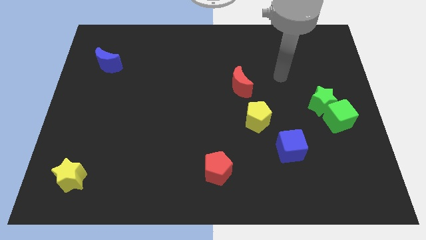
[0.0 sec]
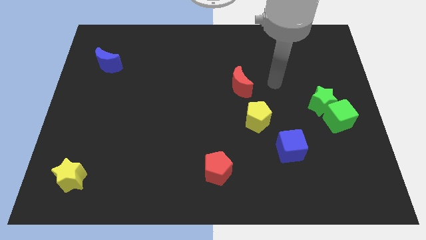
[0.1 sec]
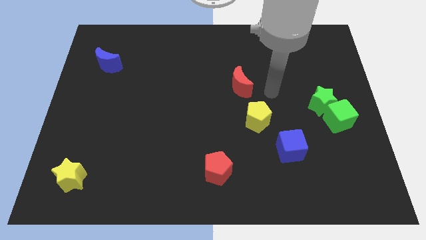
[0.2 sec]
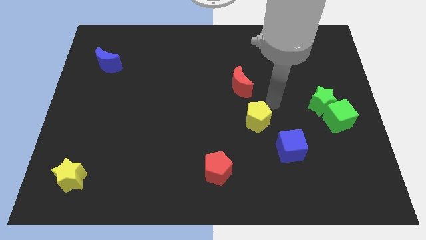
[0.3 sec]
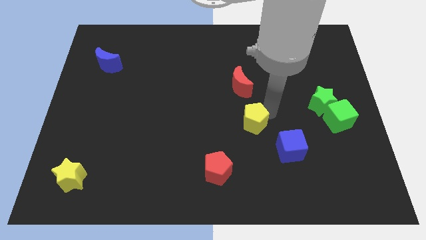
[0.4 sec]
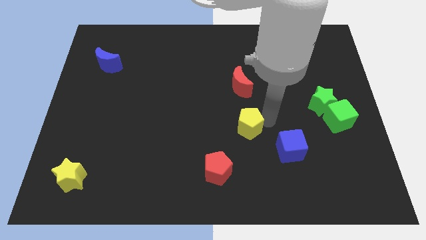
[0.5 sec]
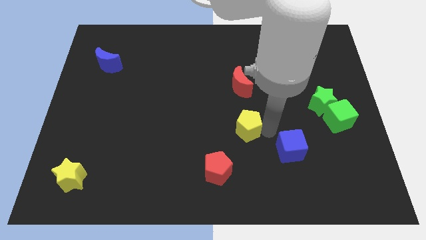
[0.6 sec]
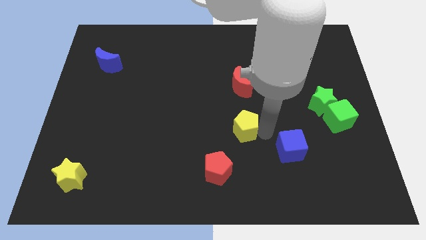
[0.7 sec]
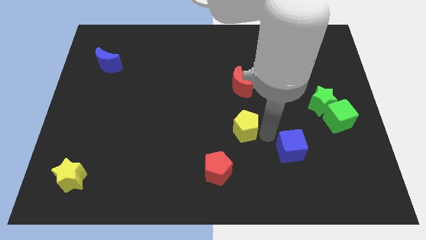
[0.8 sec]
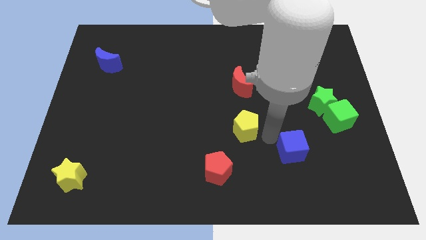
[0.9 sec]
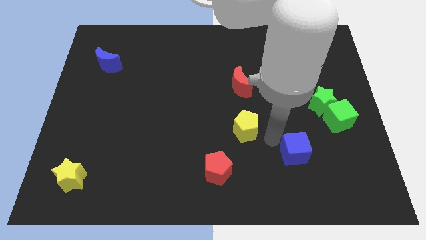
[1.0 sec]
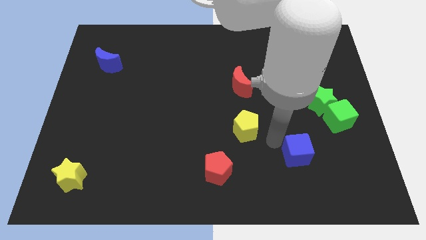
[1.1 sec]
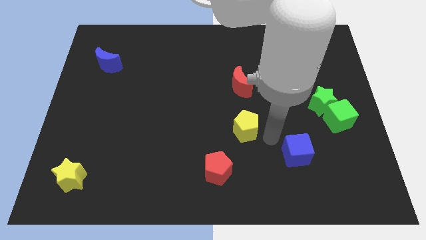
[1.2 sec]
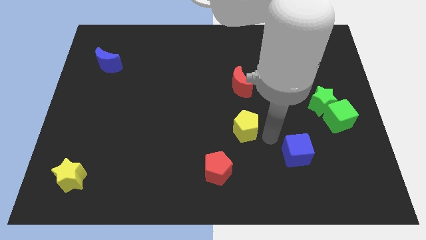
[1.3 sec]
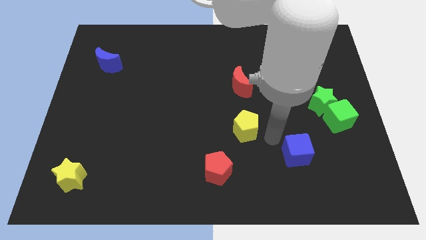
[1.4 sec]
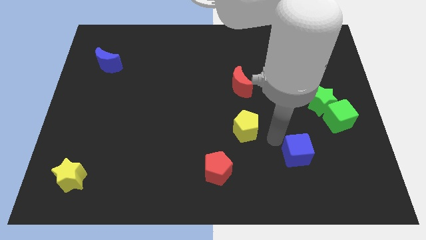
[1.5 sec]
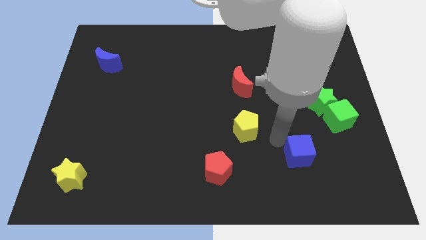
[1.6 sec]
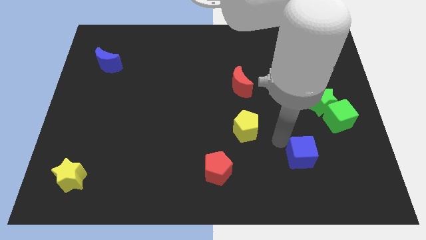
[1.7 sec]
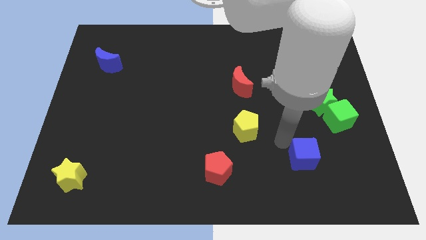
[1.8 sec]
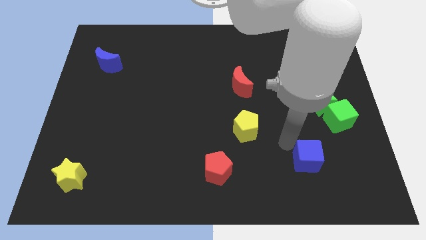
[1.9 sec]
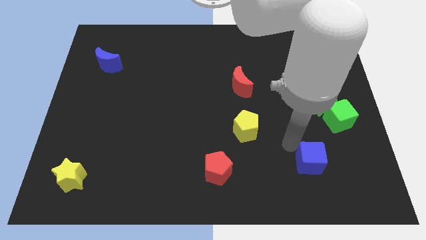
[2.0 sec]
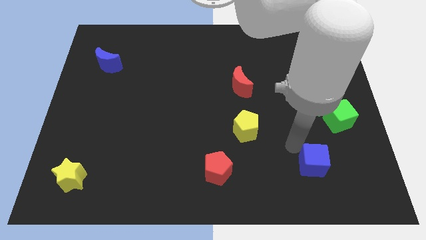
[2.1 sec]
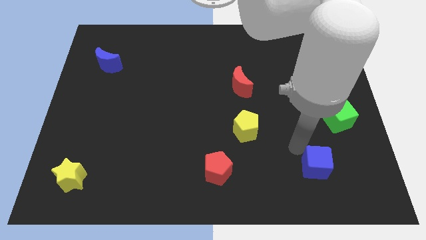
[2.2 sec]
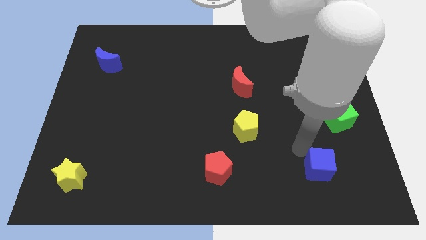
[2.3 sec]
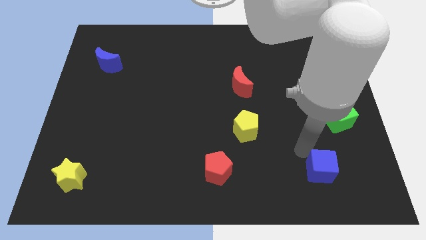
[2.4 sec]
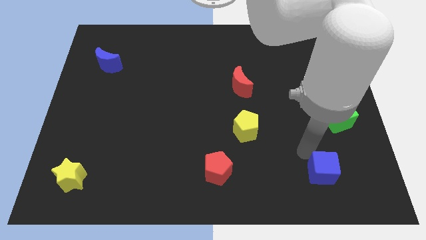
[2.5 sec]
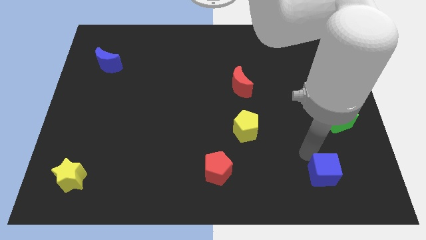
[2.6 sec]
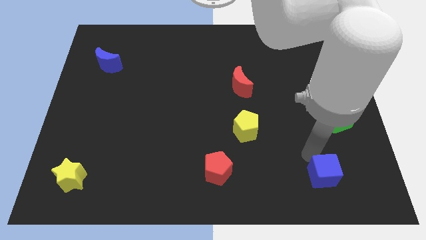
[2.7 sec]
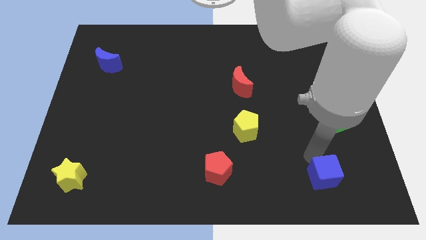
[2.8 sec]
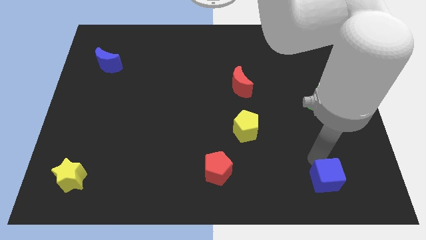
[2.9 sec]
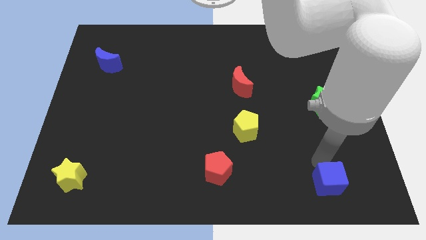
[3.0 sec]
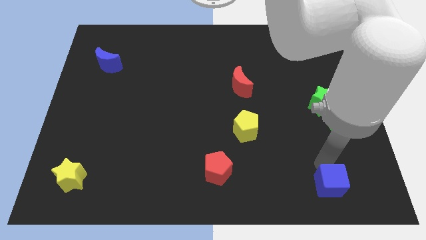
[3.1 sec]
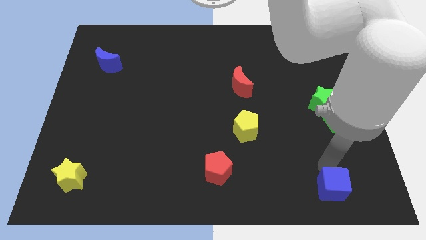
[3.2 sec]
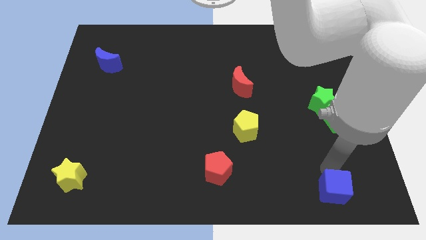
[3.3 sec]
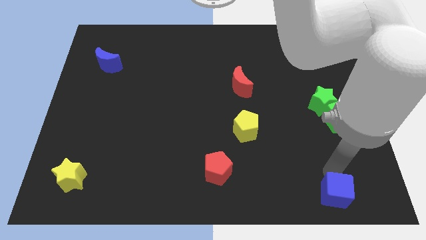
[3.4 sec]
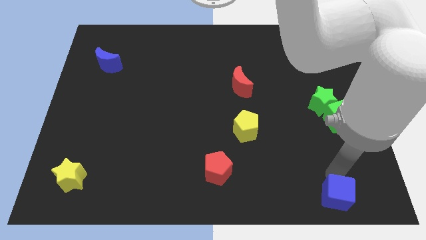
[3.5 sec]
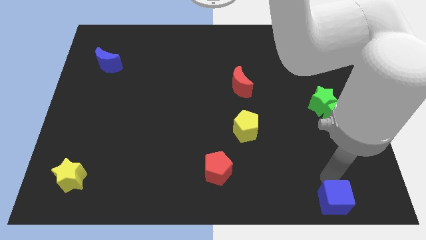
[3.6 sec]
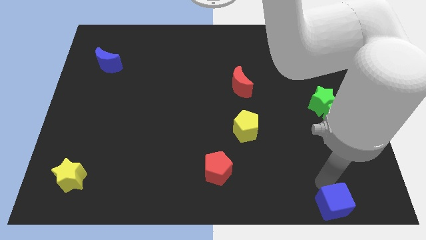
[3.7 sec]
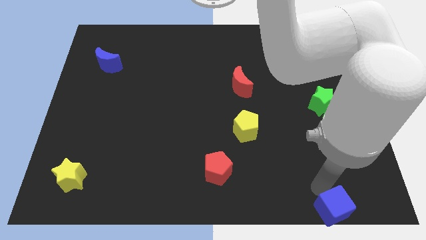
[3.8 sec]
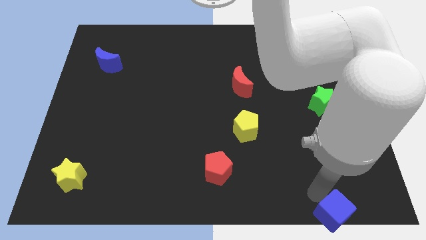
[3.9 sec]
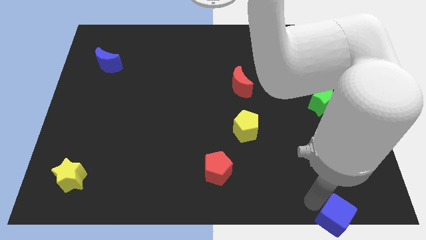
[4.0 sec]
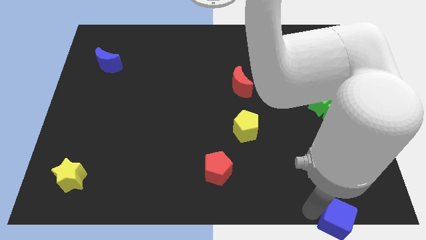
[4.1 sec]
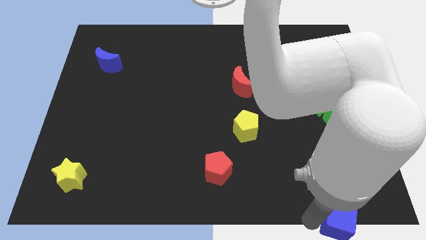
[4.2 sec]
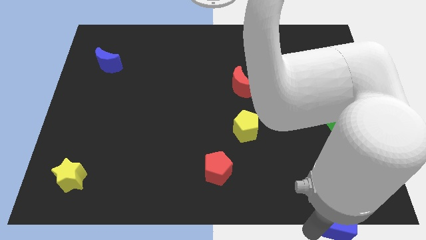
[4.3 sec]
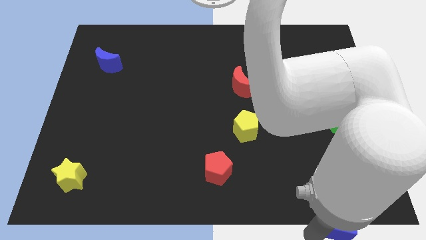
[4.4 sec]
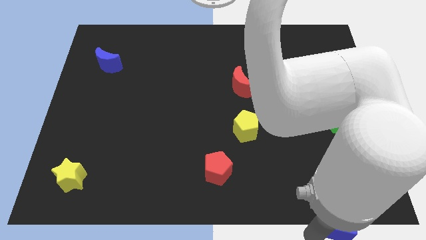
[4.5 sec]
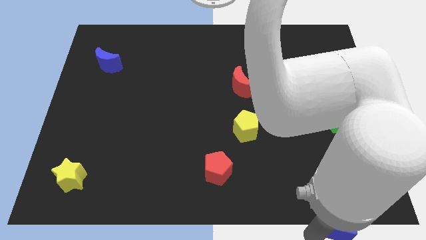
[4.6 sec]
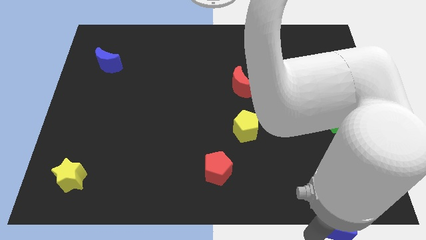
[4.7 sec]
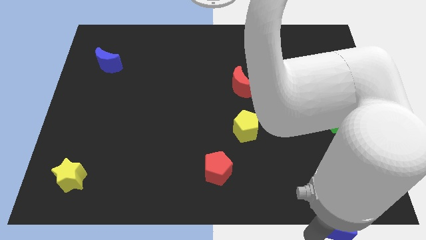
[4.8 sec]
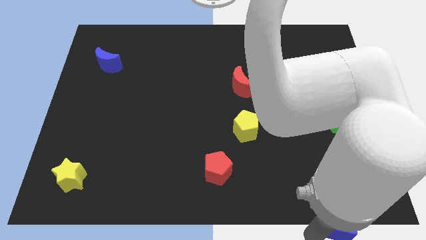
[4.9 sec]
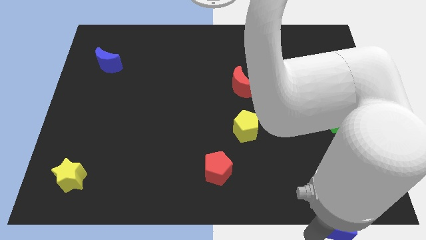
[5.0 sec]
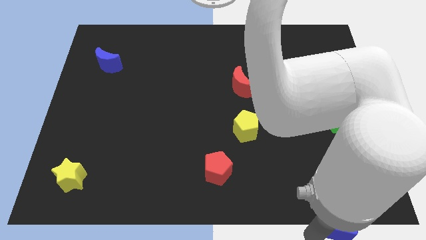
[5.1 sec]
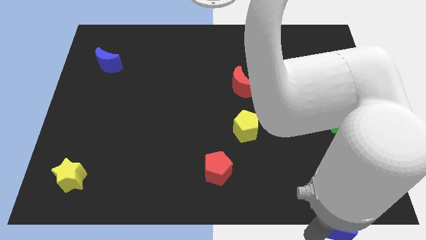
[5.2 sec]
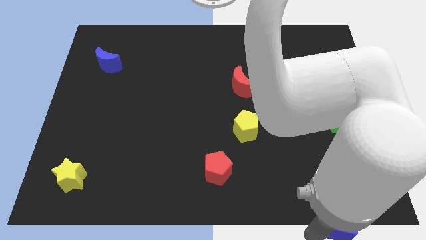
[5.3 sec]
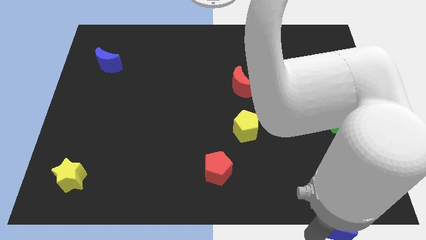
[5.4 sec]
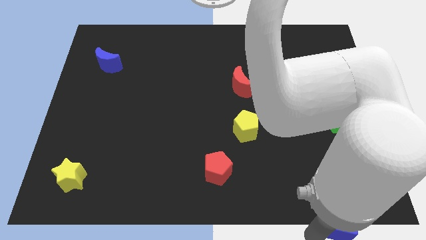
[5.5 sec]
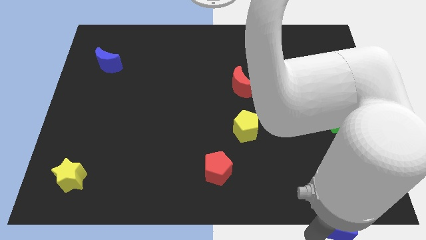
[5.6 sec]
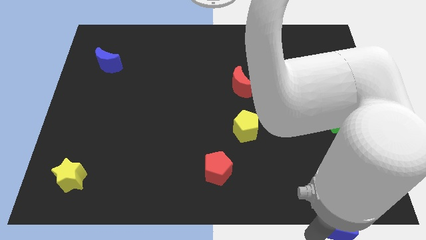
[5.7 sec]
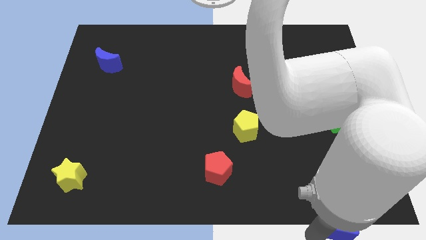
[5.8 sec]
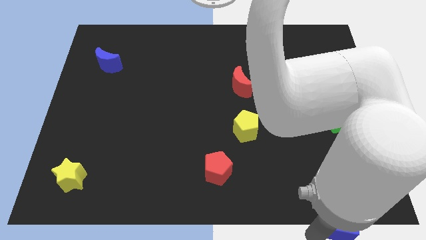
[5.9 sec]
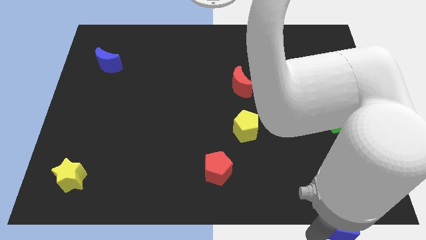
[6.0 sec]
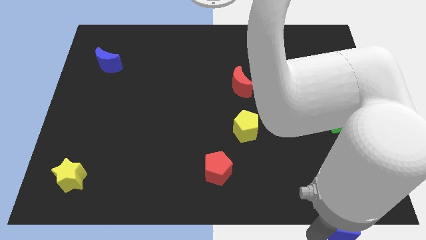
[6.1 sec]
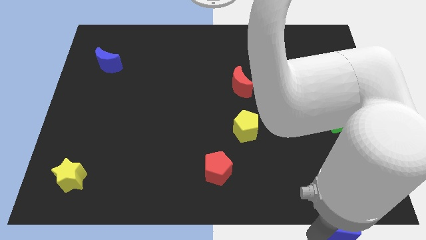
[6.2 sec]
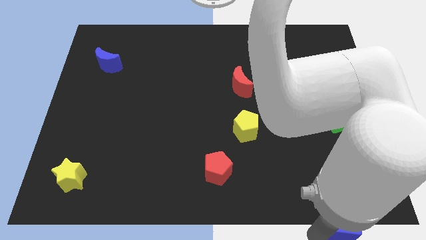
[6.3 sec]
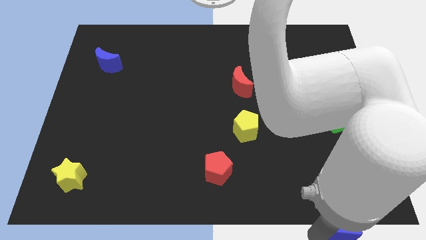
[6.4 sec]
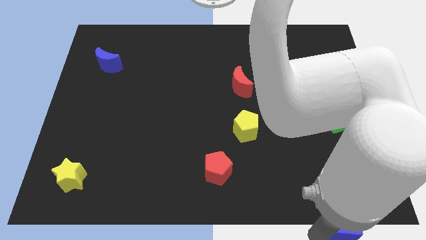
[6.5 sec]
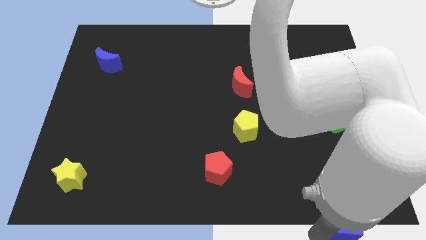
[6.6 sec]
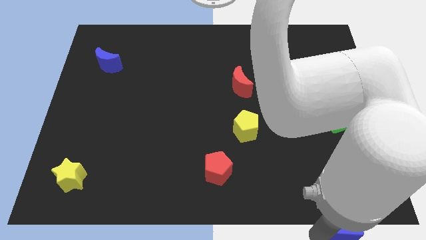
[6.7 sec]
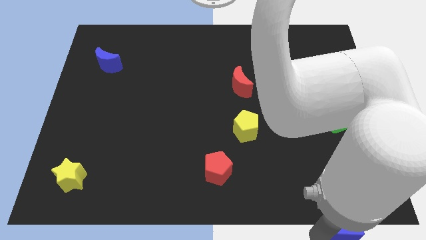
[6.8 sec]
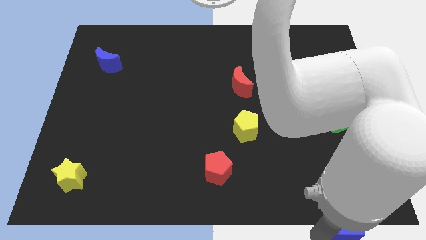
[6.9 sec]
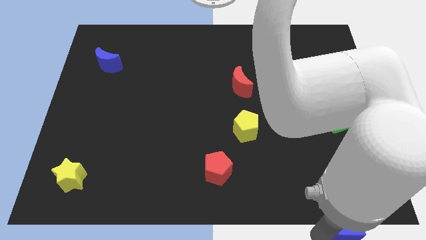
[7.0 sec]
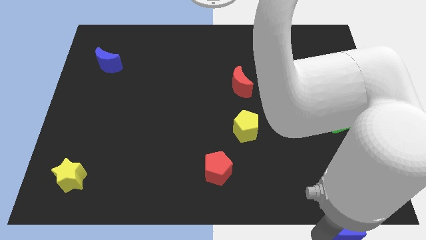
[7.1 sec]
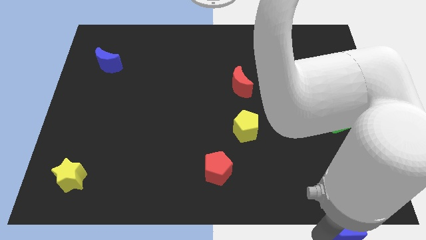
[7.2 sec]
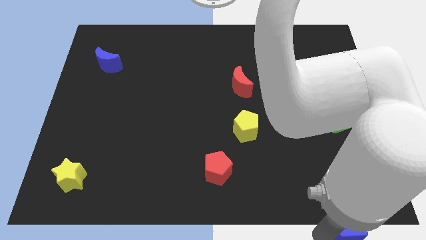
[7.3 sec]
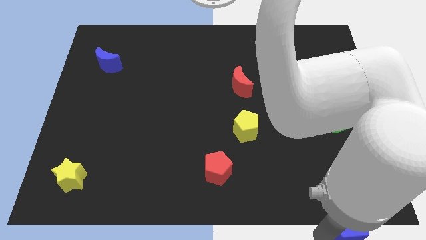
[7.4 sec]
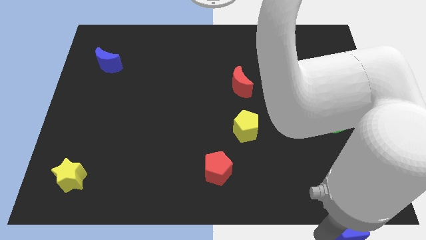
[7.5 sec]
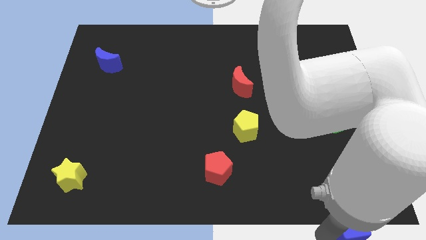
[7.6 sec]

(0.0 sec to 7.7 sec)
slide the blue cube to the bottom right of the board
